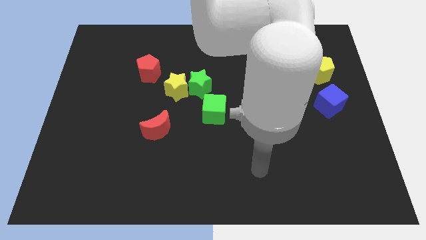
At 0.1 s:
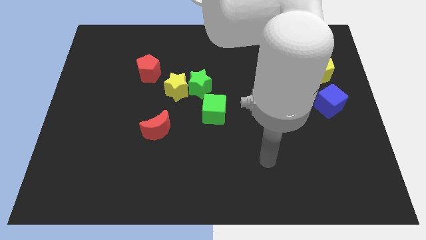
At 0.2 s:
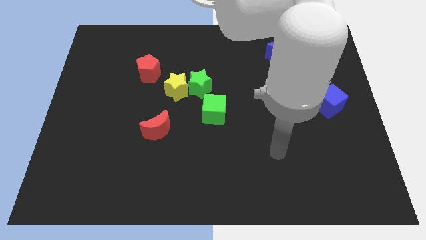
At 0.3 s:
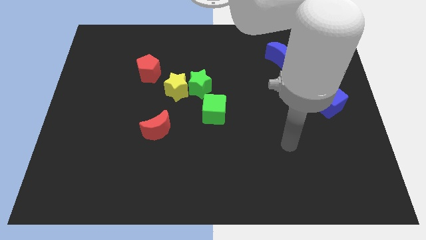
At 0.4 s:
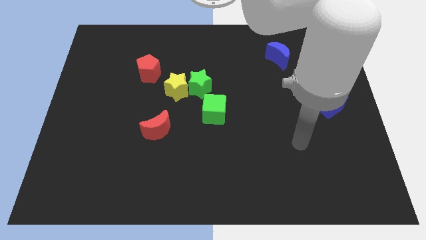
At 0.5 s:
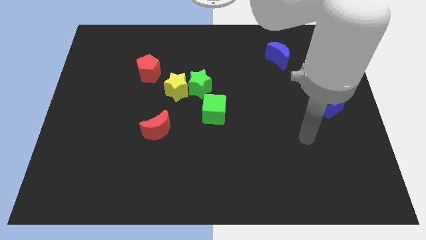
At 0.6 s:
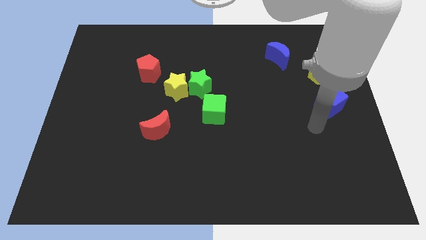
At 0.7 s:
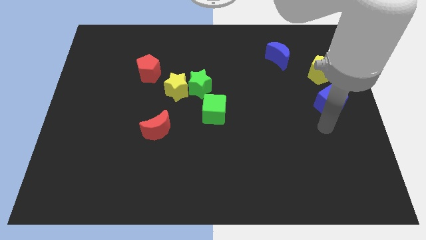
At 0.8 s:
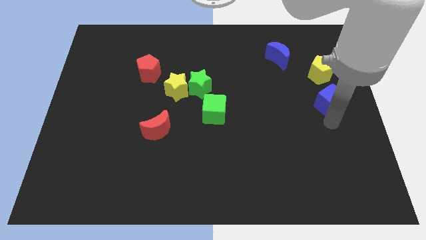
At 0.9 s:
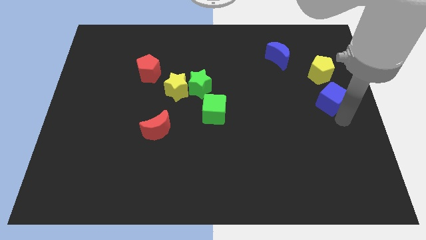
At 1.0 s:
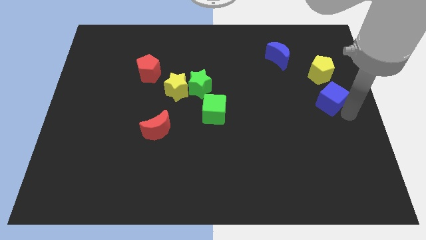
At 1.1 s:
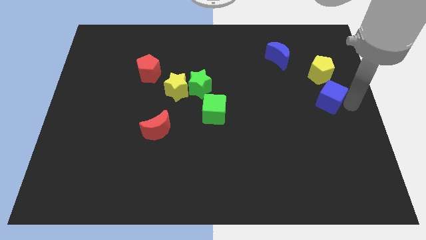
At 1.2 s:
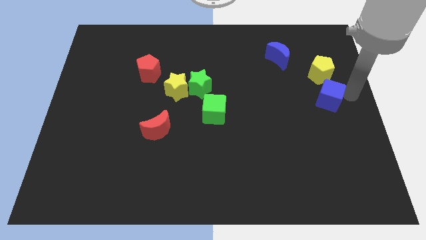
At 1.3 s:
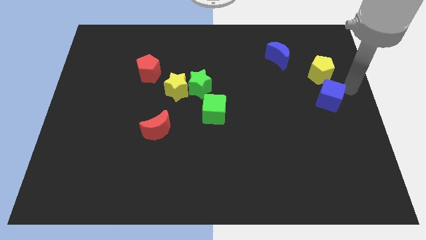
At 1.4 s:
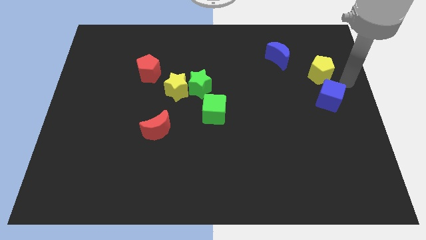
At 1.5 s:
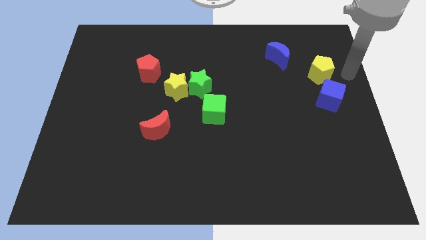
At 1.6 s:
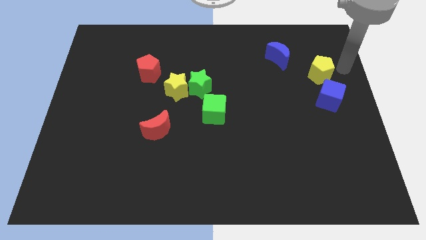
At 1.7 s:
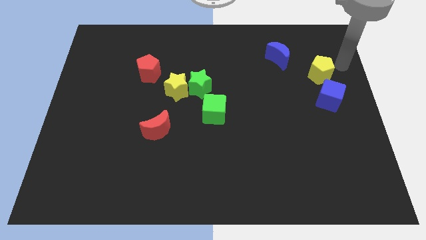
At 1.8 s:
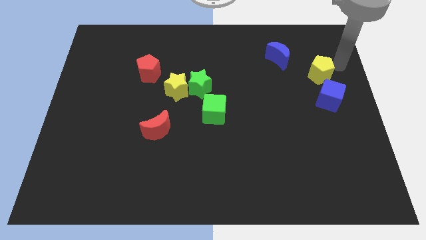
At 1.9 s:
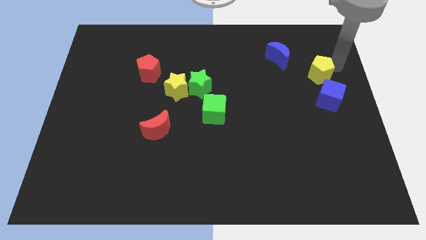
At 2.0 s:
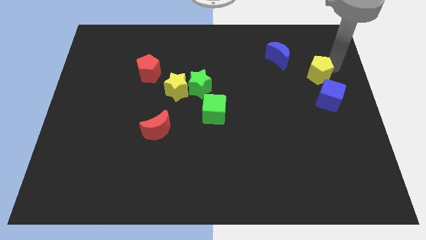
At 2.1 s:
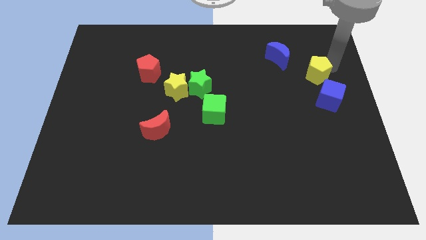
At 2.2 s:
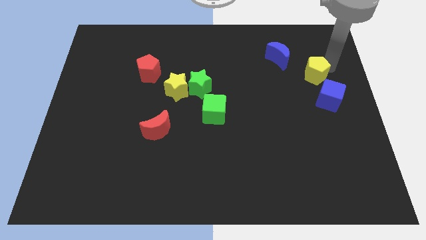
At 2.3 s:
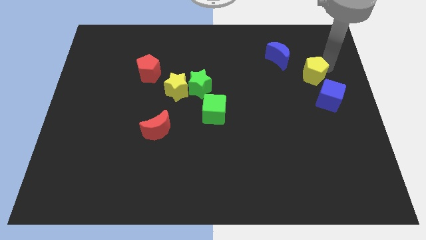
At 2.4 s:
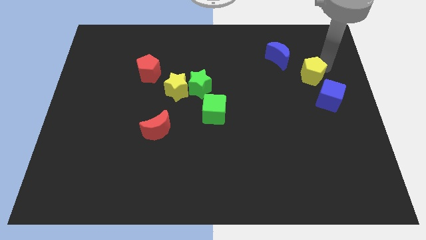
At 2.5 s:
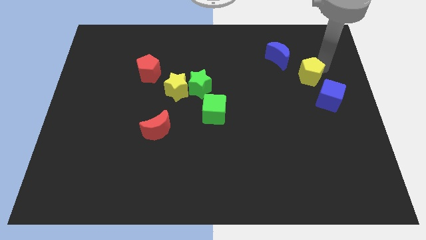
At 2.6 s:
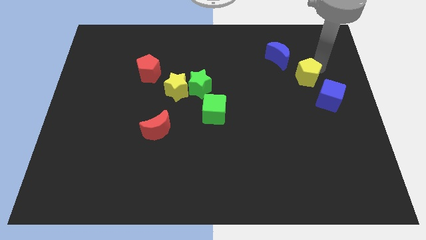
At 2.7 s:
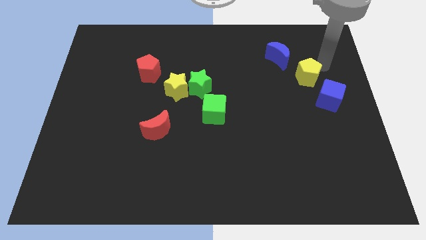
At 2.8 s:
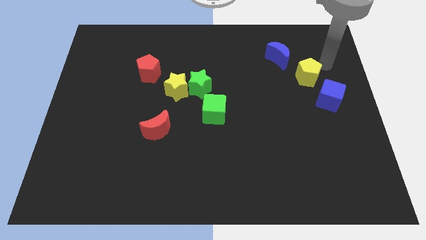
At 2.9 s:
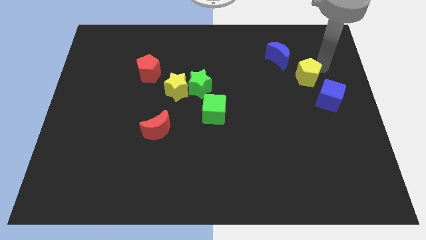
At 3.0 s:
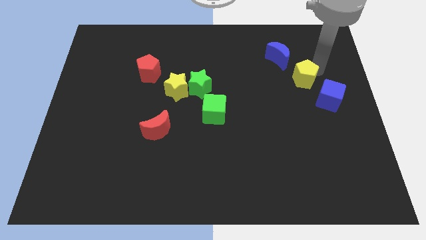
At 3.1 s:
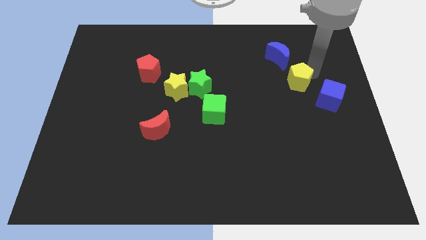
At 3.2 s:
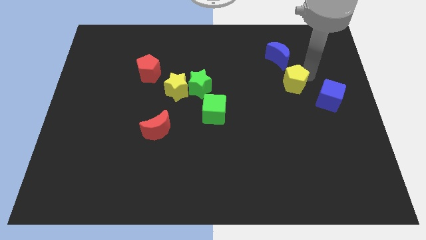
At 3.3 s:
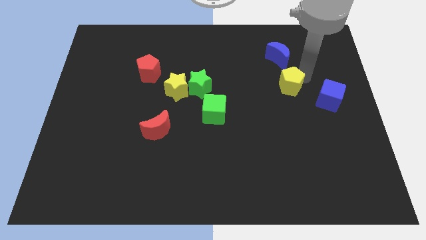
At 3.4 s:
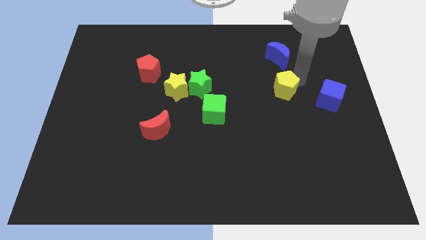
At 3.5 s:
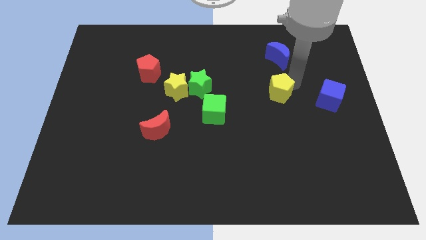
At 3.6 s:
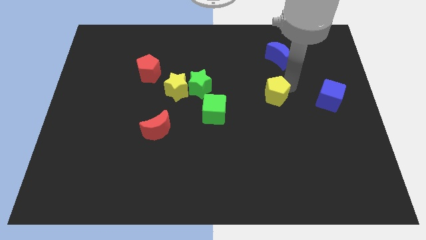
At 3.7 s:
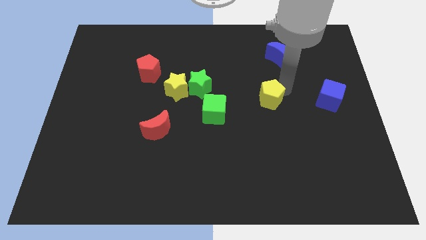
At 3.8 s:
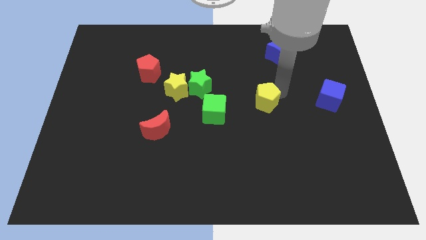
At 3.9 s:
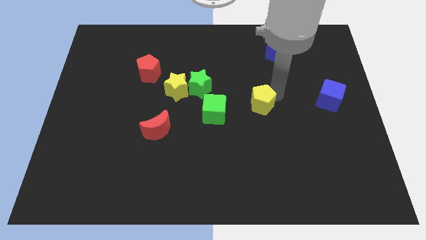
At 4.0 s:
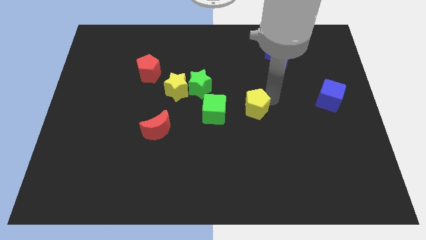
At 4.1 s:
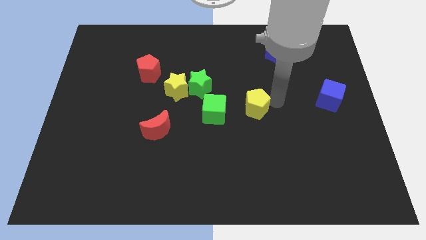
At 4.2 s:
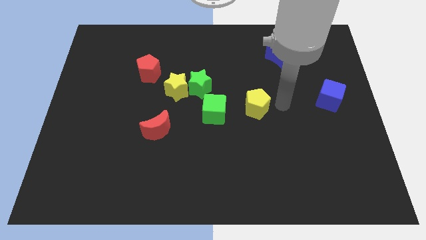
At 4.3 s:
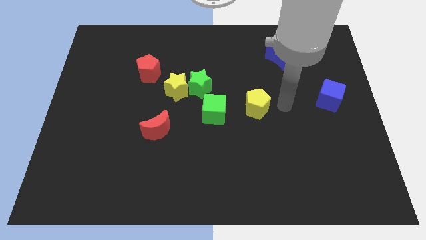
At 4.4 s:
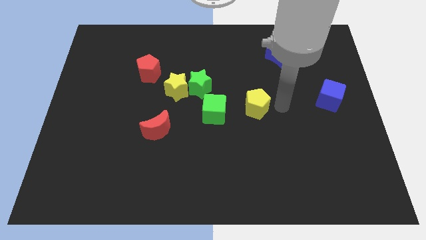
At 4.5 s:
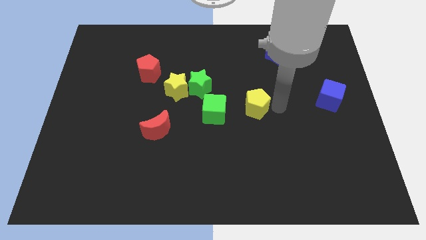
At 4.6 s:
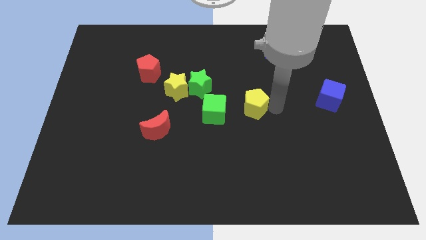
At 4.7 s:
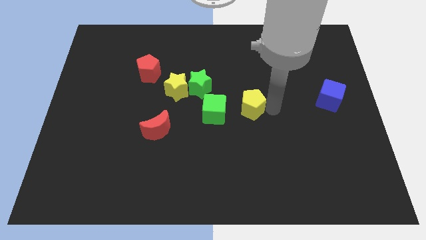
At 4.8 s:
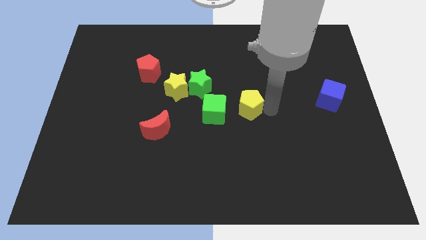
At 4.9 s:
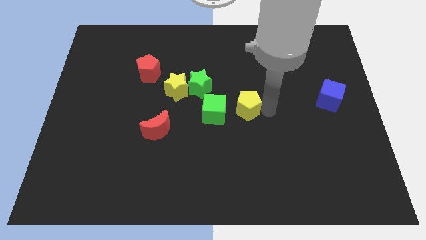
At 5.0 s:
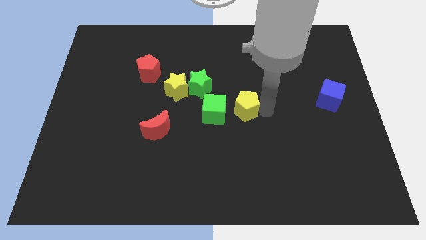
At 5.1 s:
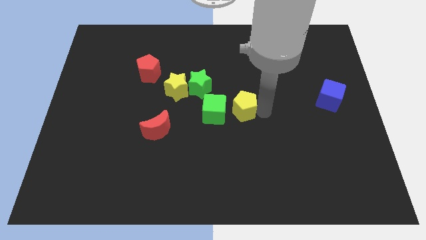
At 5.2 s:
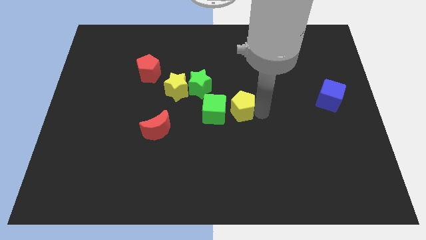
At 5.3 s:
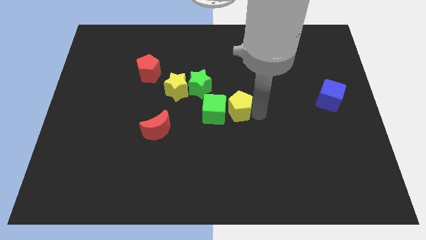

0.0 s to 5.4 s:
push the yellow pentagon next to the green cube

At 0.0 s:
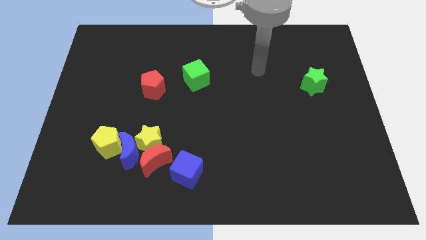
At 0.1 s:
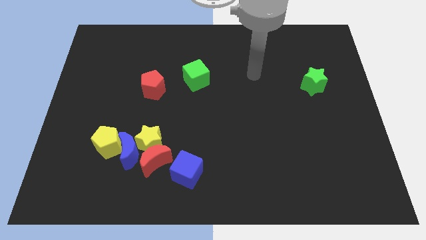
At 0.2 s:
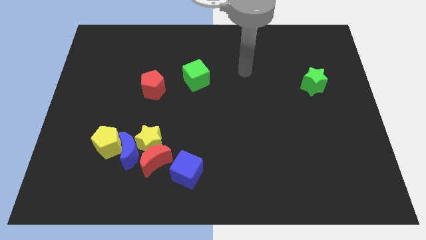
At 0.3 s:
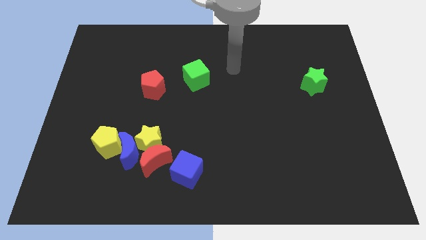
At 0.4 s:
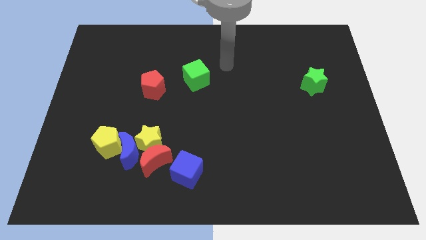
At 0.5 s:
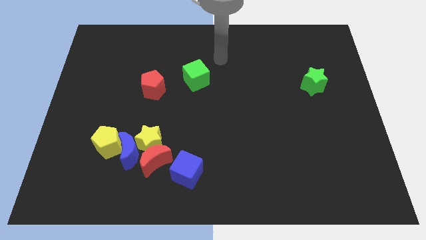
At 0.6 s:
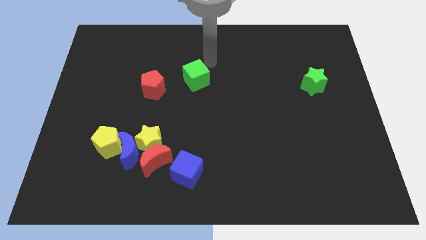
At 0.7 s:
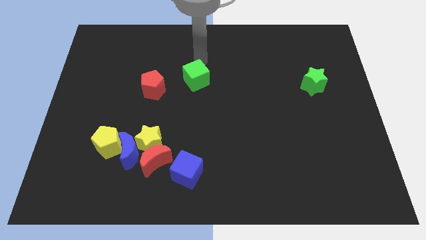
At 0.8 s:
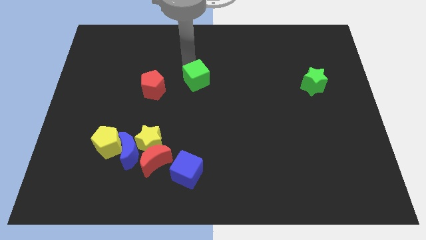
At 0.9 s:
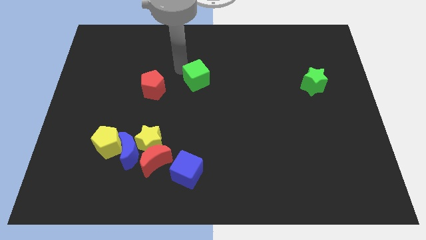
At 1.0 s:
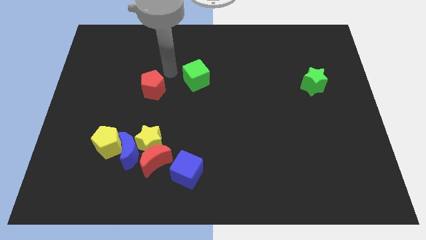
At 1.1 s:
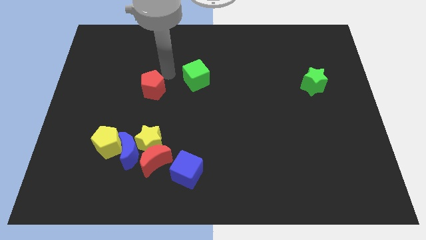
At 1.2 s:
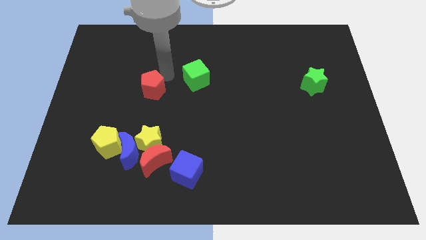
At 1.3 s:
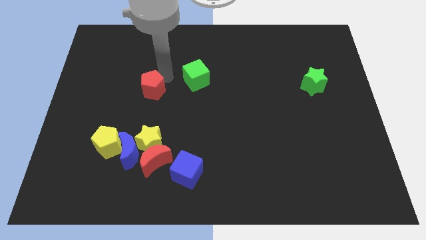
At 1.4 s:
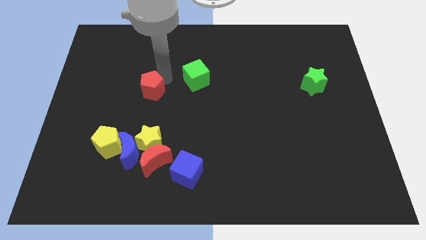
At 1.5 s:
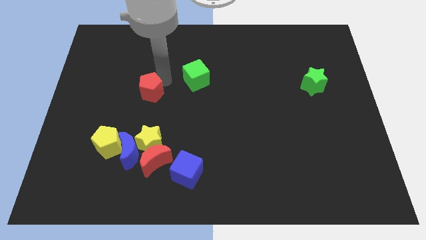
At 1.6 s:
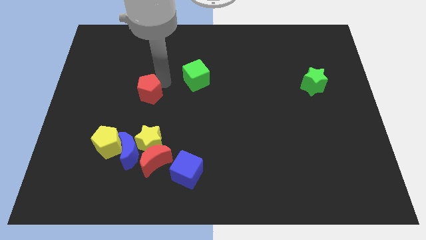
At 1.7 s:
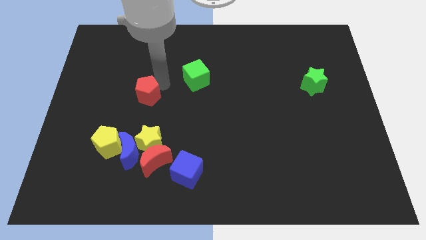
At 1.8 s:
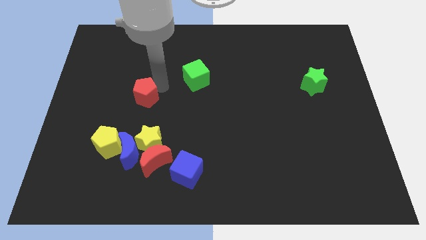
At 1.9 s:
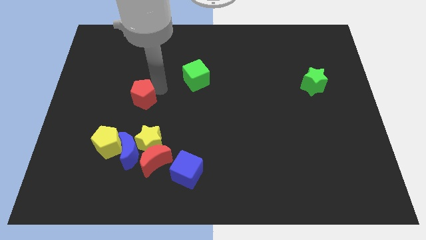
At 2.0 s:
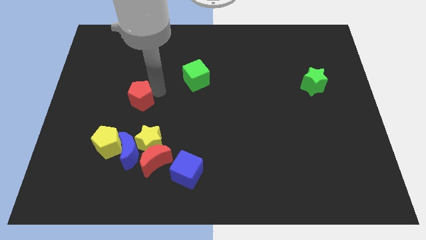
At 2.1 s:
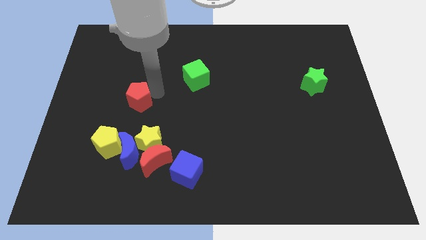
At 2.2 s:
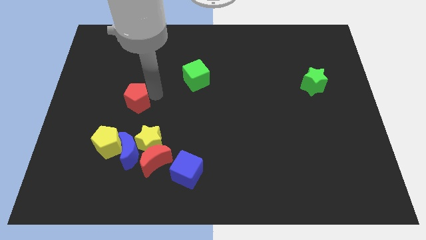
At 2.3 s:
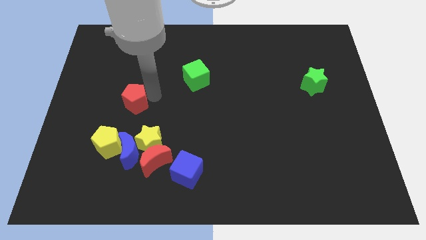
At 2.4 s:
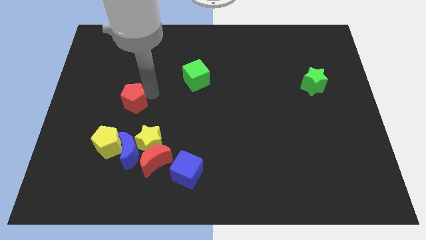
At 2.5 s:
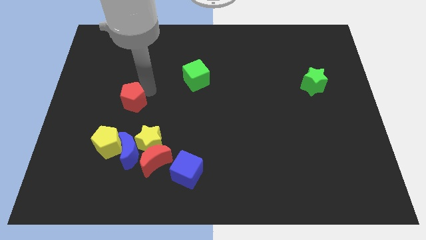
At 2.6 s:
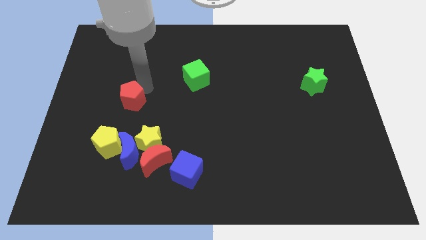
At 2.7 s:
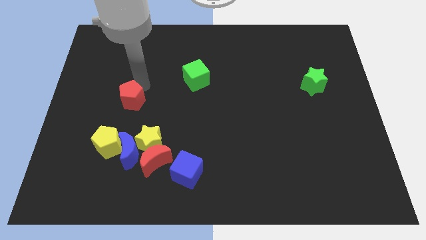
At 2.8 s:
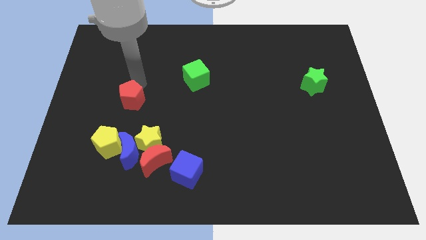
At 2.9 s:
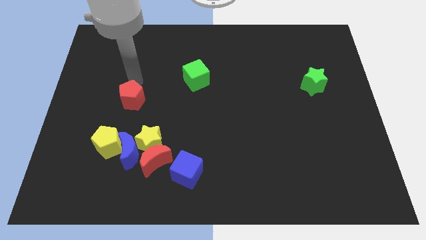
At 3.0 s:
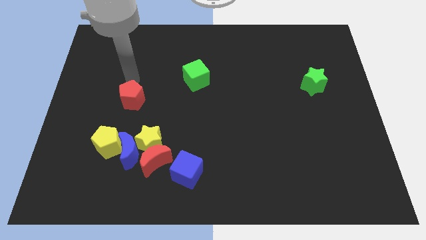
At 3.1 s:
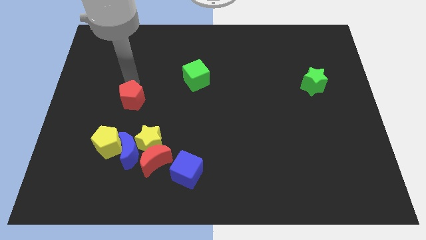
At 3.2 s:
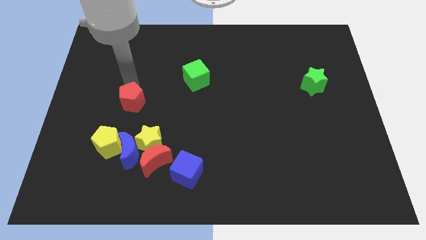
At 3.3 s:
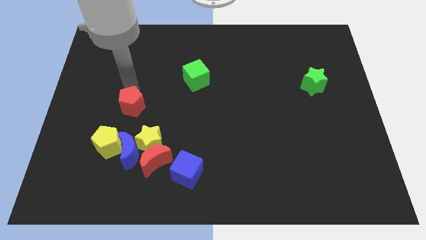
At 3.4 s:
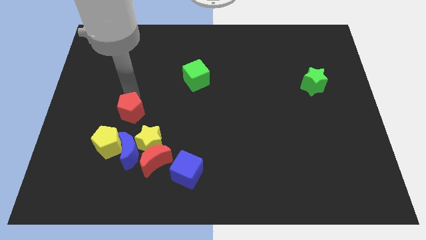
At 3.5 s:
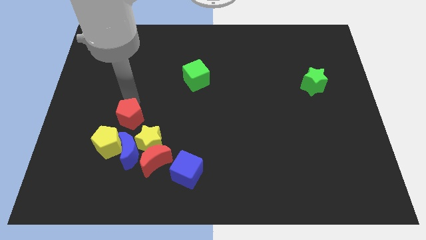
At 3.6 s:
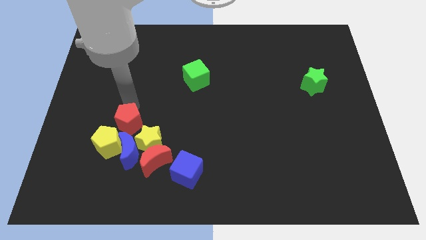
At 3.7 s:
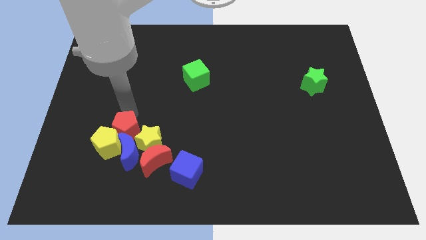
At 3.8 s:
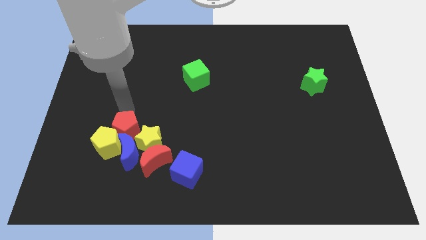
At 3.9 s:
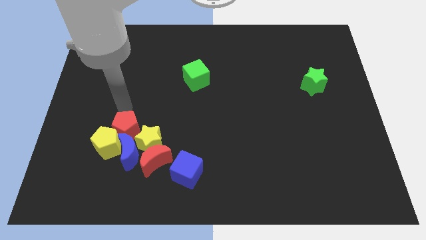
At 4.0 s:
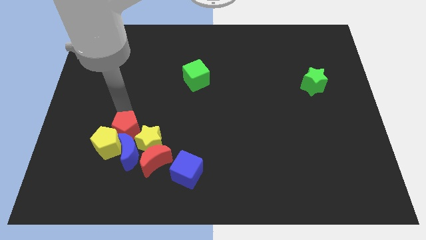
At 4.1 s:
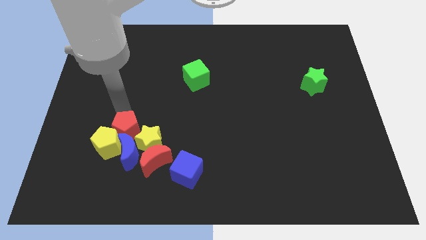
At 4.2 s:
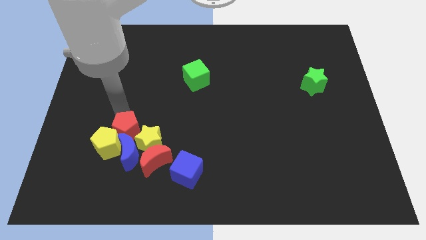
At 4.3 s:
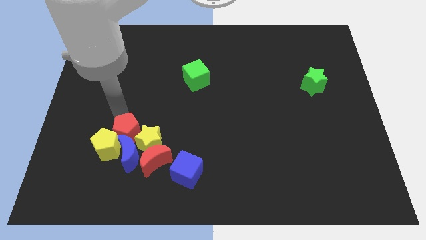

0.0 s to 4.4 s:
slide the red pentagon towards the blue moon
